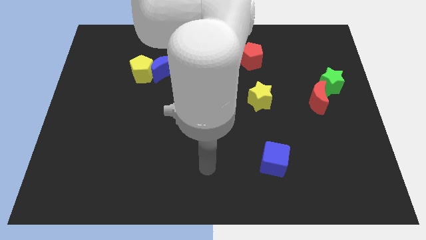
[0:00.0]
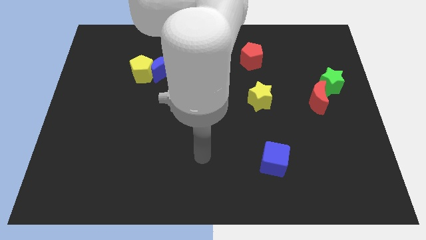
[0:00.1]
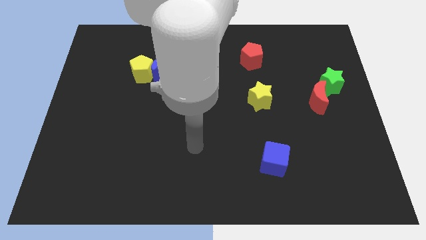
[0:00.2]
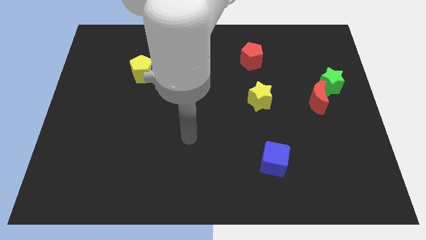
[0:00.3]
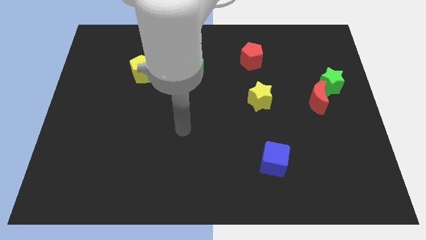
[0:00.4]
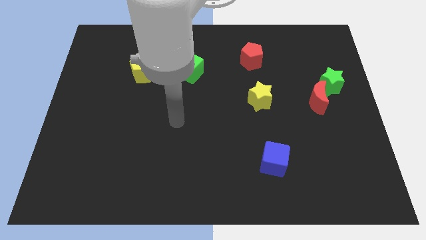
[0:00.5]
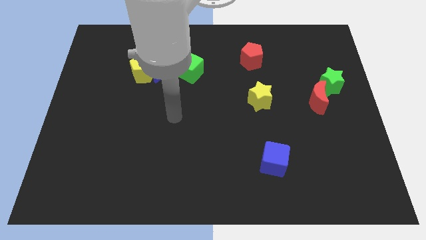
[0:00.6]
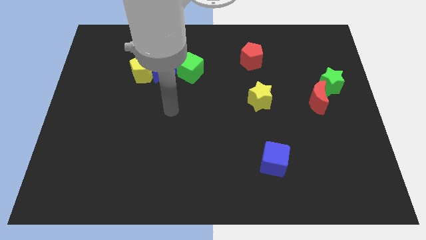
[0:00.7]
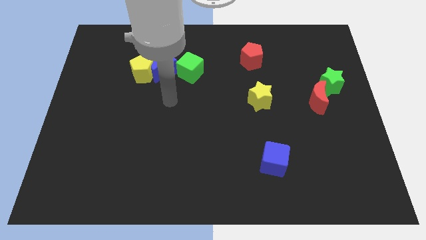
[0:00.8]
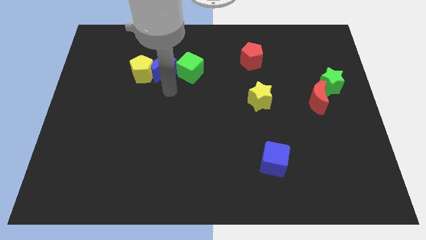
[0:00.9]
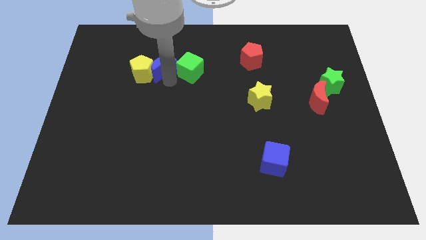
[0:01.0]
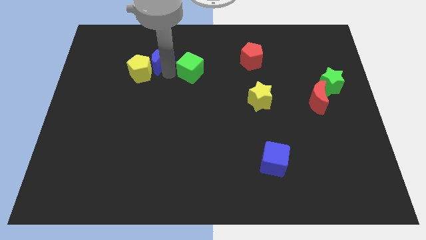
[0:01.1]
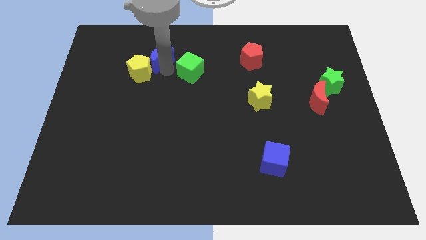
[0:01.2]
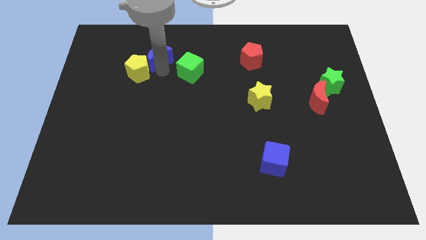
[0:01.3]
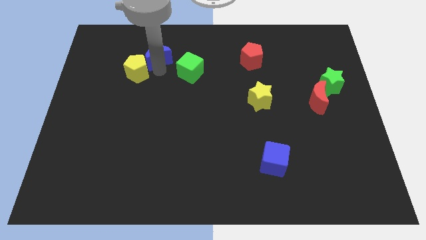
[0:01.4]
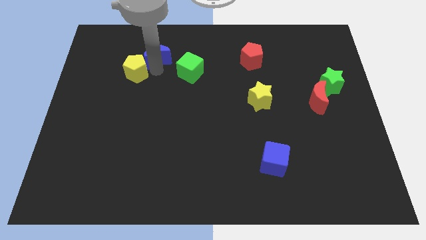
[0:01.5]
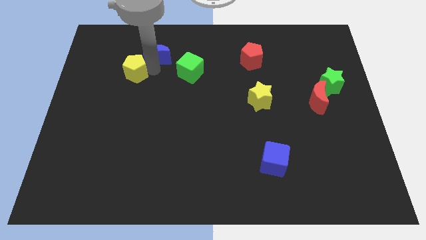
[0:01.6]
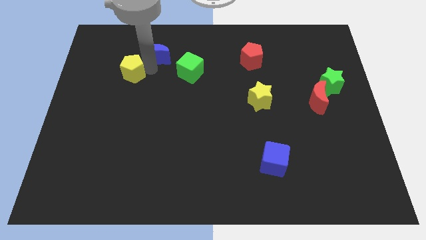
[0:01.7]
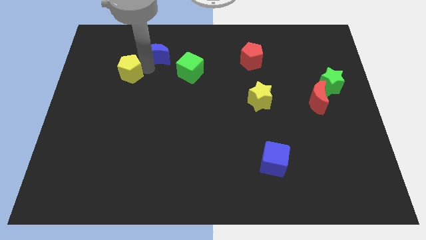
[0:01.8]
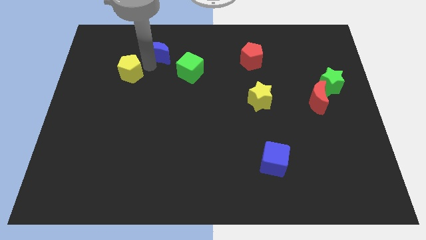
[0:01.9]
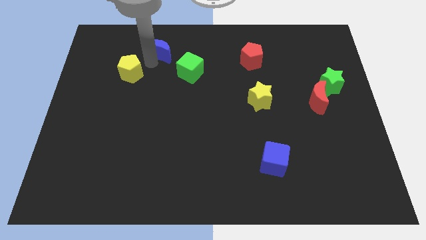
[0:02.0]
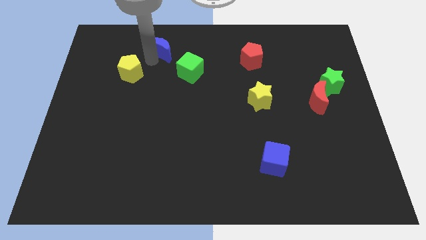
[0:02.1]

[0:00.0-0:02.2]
move the yellow pentagon away from the blue moon

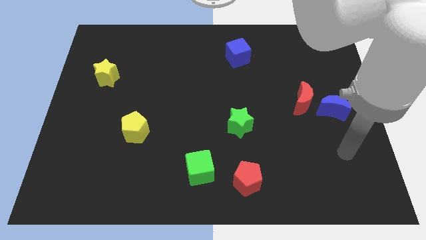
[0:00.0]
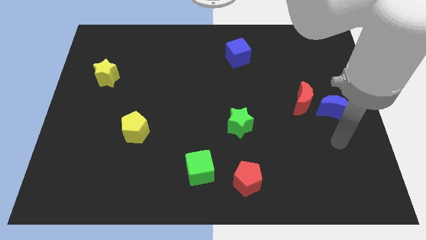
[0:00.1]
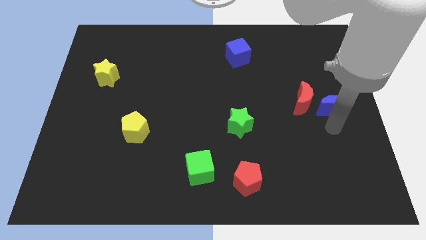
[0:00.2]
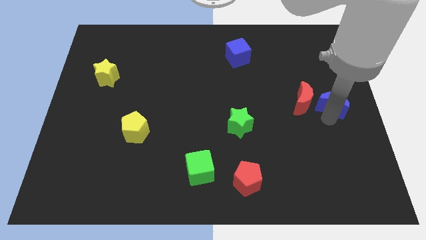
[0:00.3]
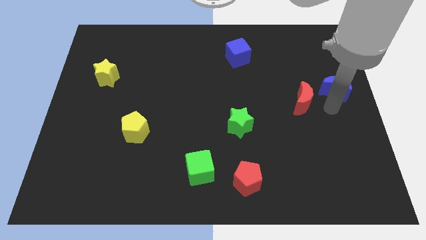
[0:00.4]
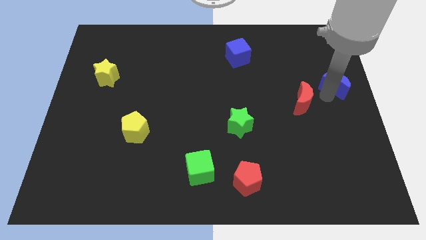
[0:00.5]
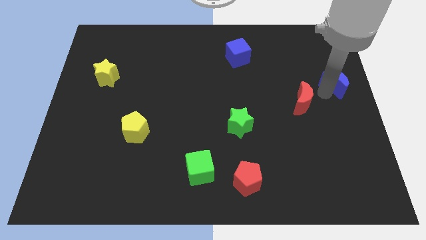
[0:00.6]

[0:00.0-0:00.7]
pull the red moon apart from the blue moon

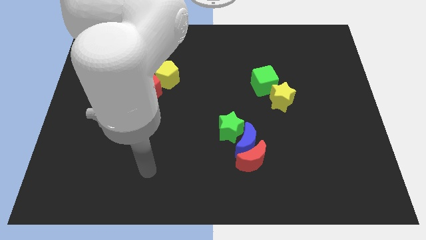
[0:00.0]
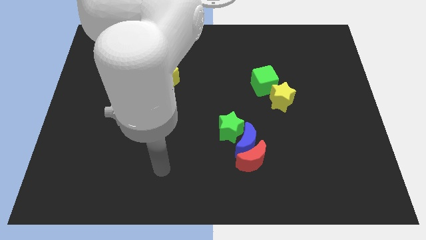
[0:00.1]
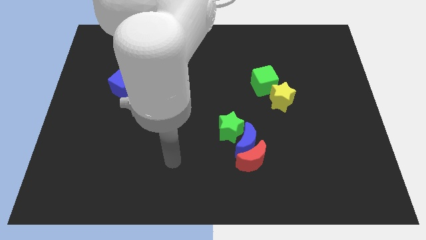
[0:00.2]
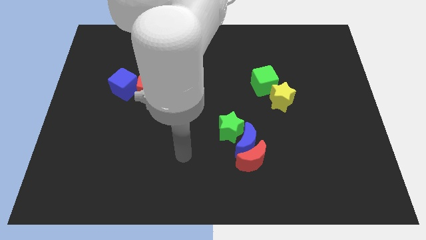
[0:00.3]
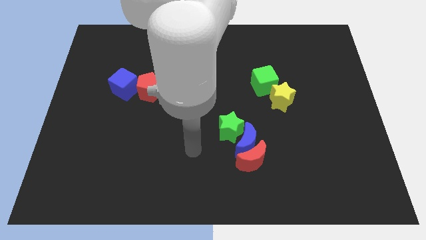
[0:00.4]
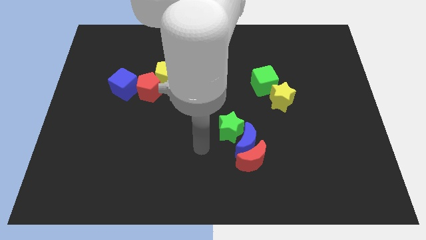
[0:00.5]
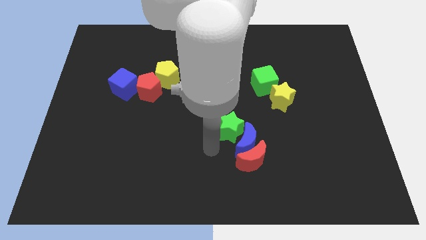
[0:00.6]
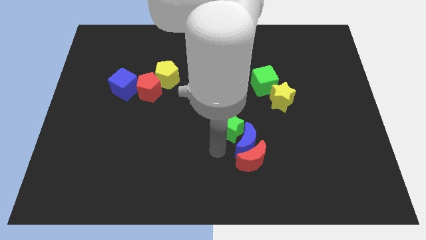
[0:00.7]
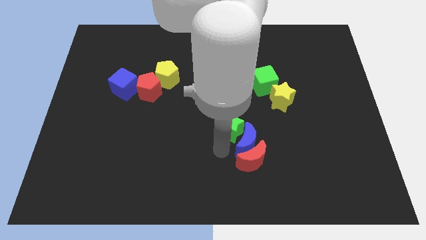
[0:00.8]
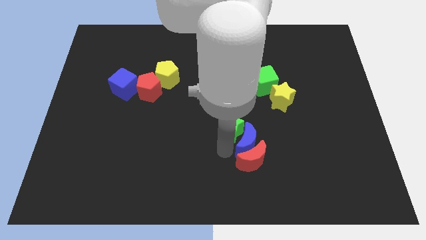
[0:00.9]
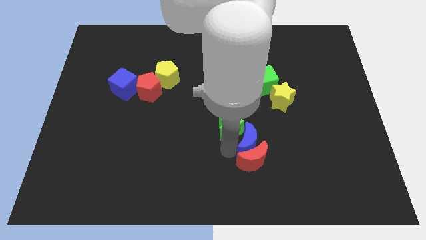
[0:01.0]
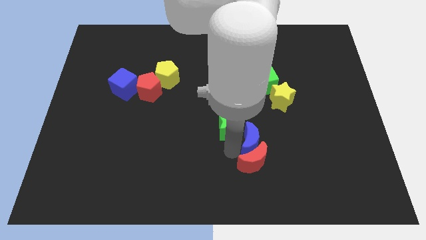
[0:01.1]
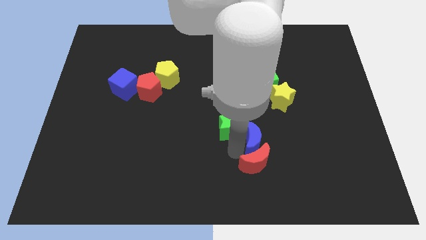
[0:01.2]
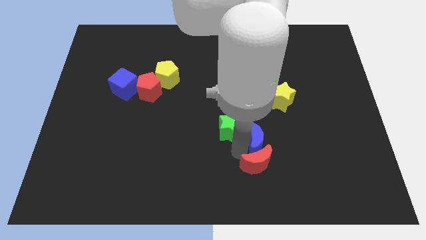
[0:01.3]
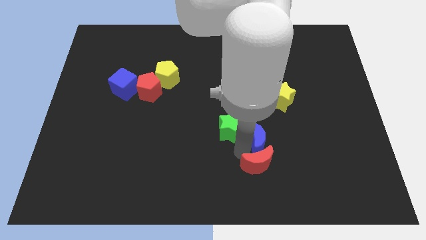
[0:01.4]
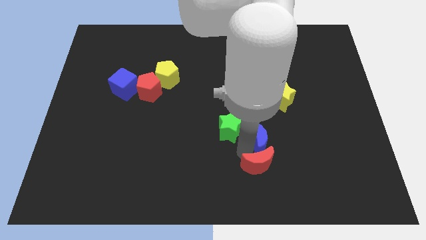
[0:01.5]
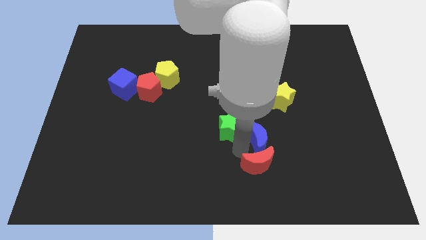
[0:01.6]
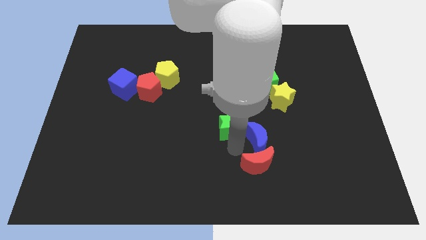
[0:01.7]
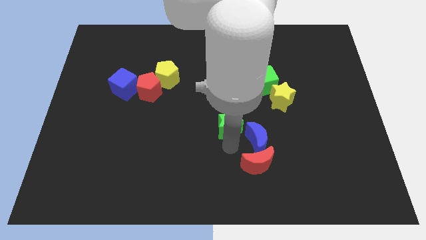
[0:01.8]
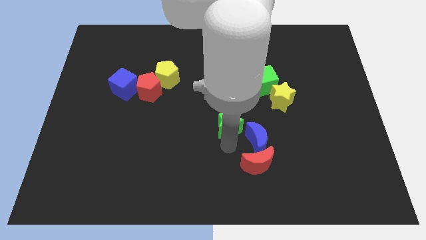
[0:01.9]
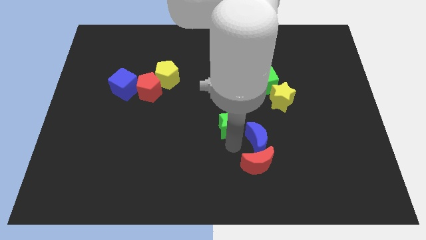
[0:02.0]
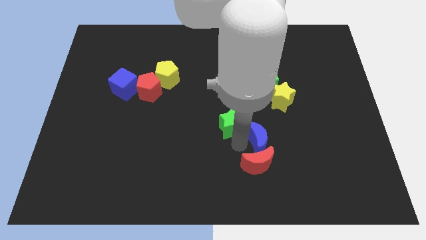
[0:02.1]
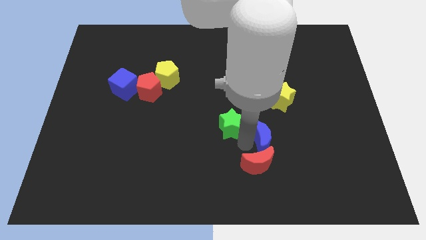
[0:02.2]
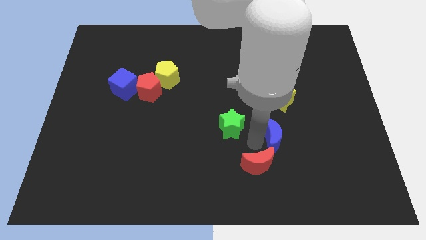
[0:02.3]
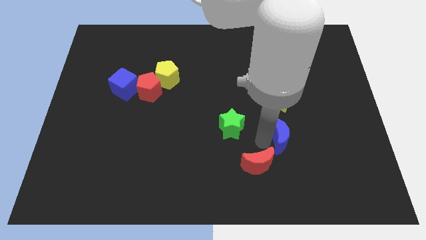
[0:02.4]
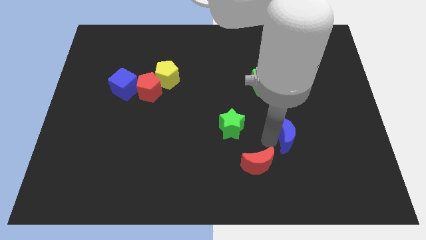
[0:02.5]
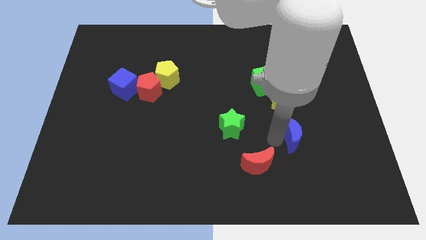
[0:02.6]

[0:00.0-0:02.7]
separate the blue moon from the red moon and green star

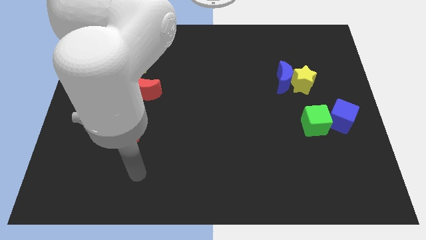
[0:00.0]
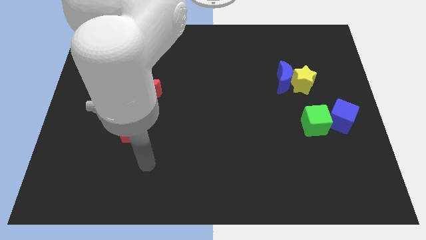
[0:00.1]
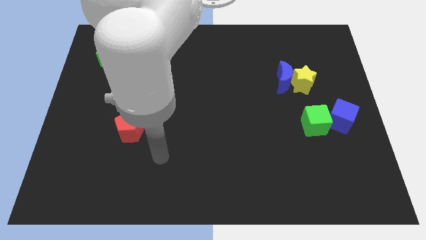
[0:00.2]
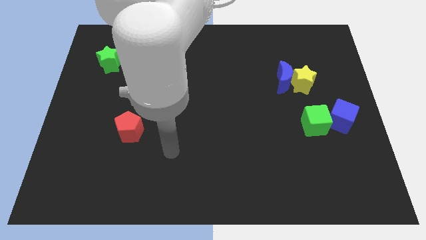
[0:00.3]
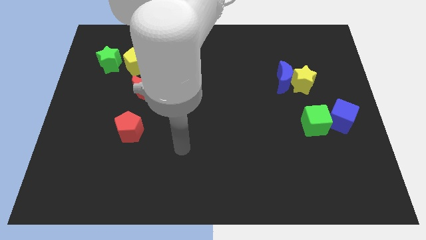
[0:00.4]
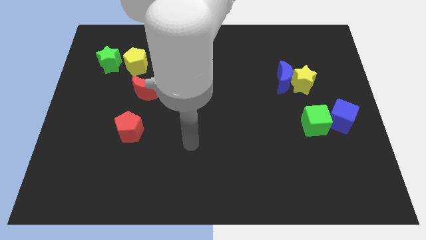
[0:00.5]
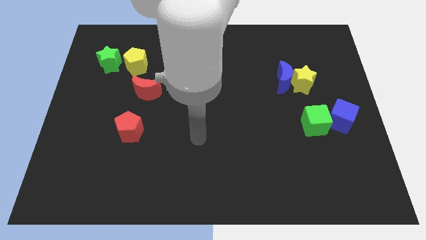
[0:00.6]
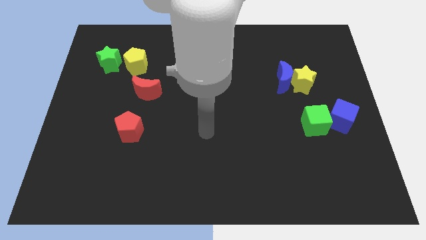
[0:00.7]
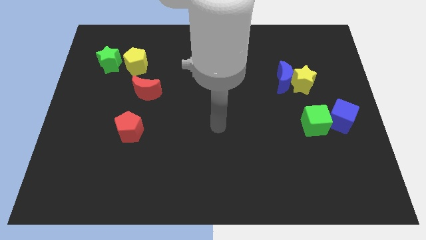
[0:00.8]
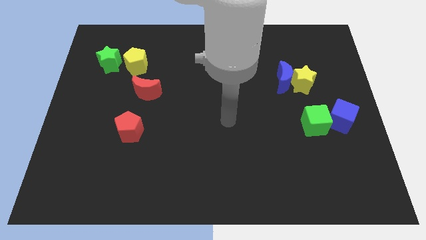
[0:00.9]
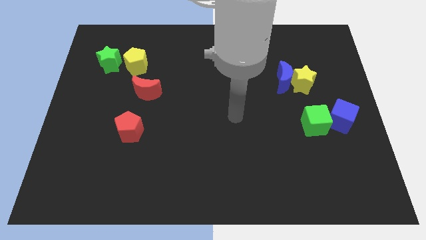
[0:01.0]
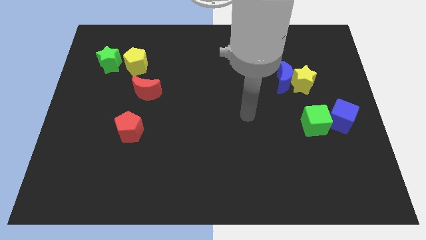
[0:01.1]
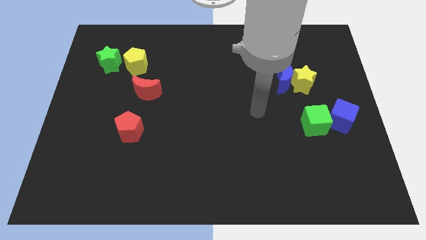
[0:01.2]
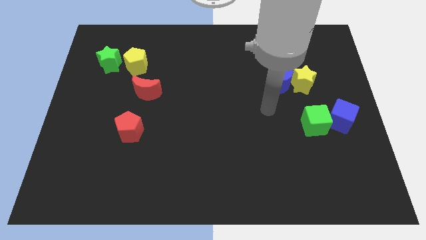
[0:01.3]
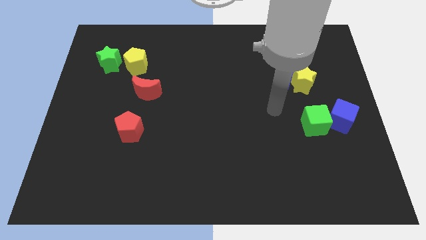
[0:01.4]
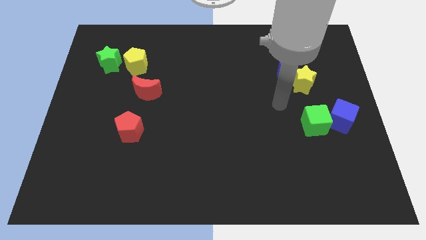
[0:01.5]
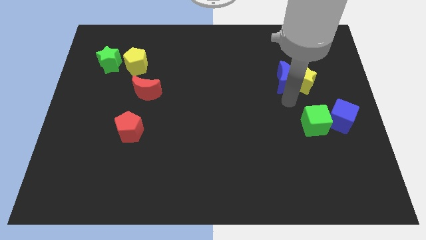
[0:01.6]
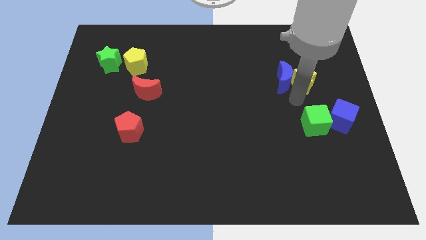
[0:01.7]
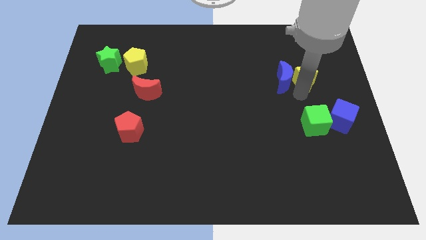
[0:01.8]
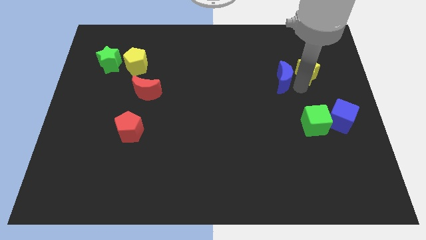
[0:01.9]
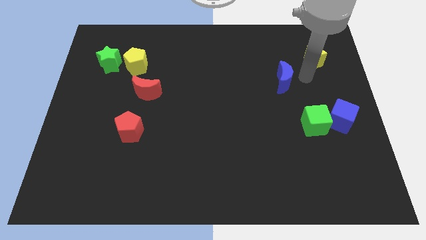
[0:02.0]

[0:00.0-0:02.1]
separate the blue moon from the yellow star

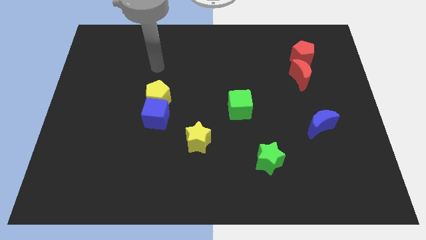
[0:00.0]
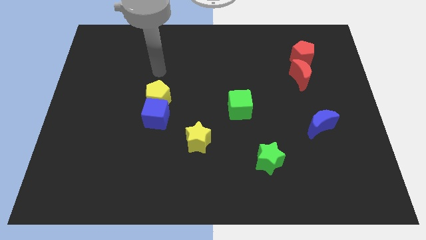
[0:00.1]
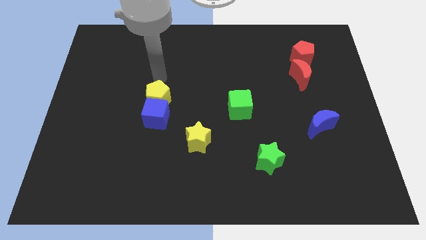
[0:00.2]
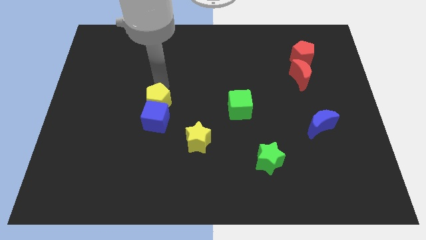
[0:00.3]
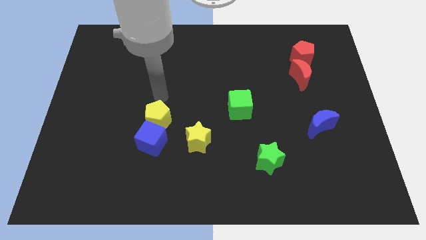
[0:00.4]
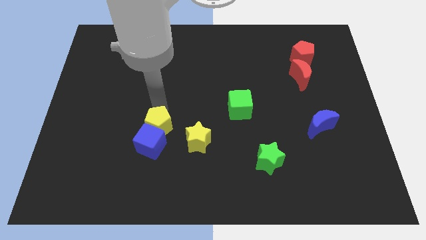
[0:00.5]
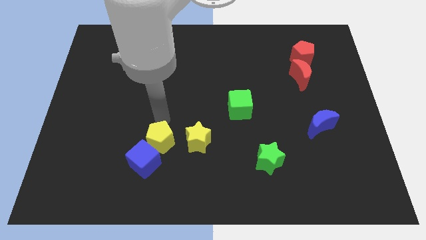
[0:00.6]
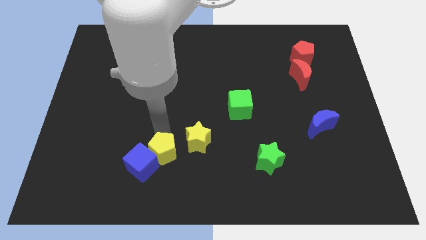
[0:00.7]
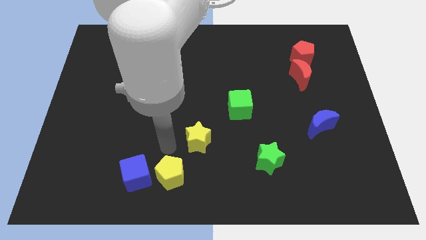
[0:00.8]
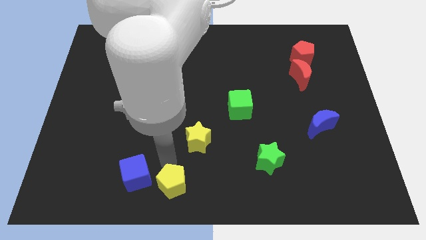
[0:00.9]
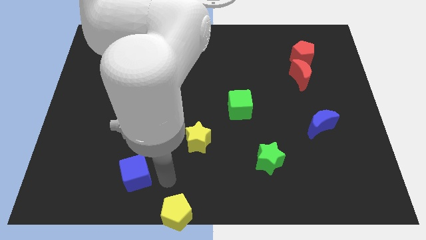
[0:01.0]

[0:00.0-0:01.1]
separate the blue cube from the yellow pentagon

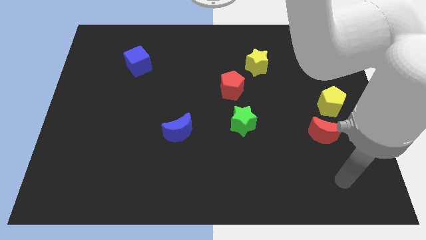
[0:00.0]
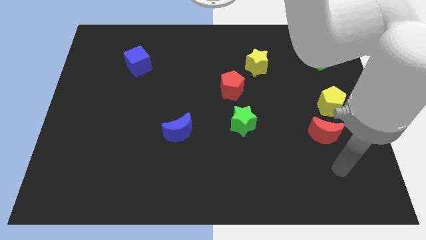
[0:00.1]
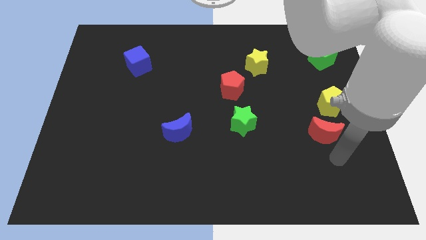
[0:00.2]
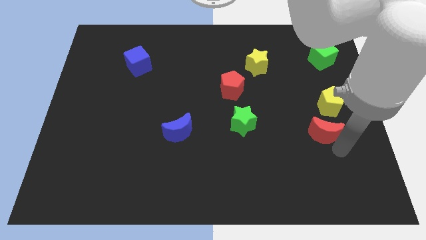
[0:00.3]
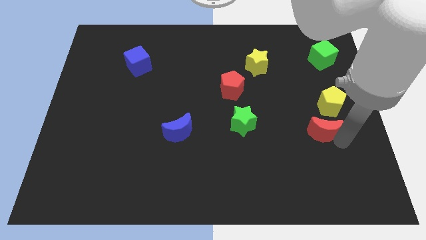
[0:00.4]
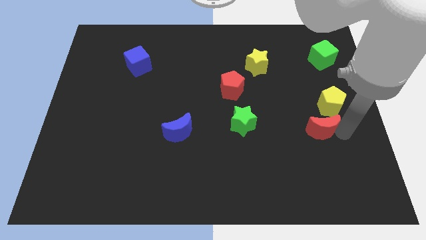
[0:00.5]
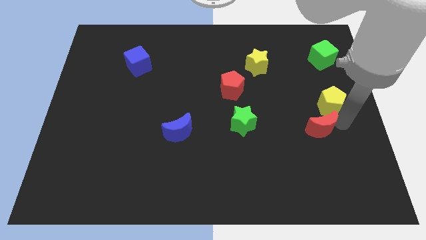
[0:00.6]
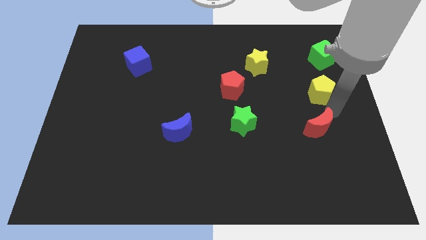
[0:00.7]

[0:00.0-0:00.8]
pull the red moon apart from the yellow pentagon
